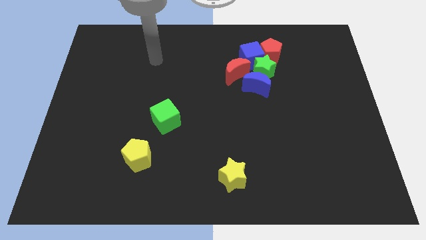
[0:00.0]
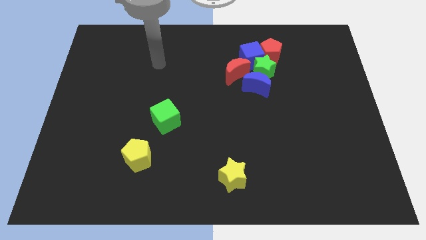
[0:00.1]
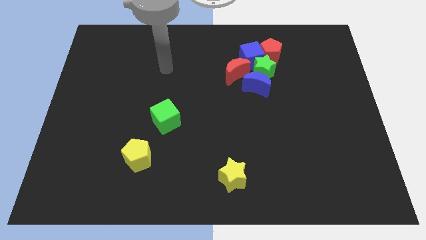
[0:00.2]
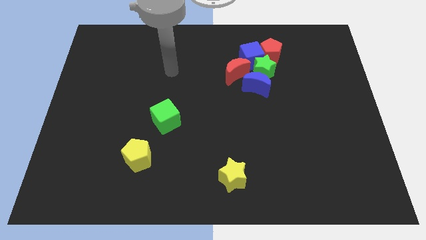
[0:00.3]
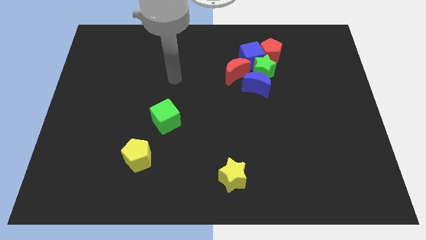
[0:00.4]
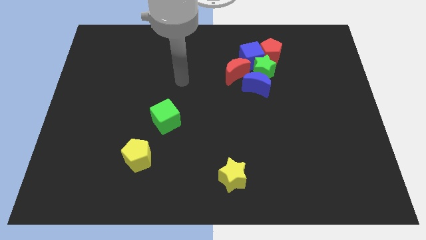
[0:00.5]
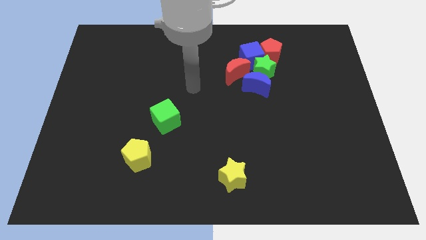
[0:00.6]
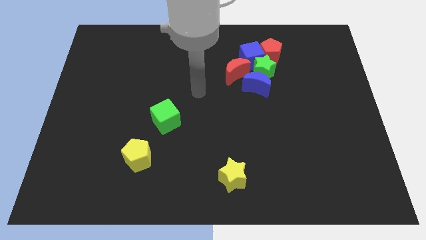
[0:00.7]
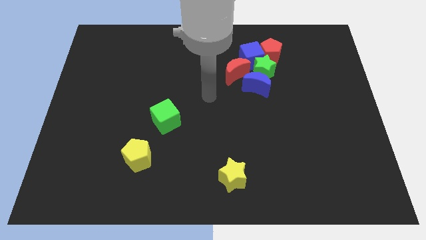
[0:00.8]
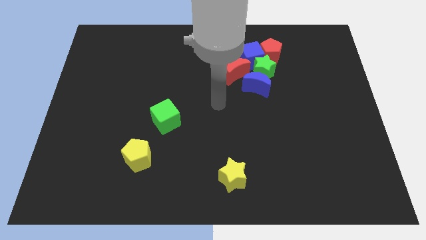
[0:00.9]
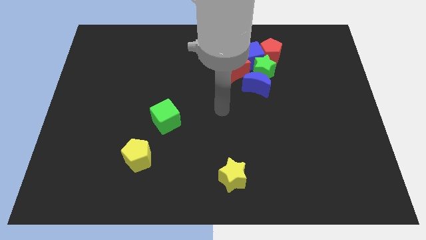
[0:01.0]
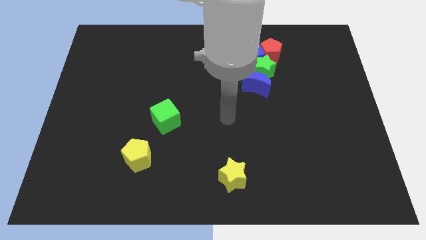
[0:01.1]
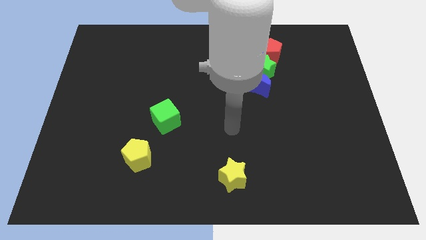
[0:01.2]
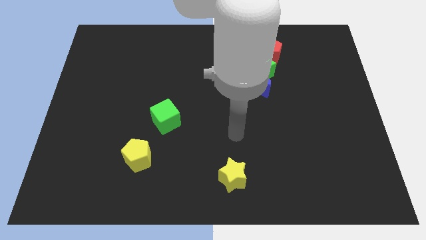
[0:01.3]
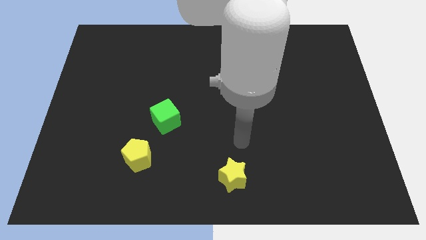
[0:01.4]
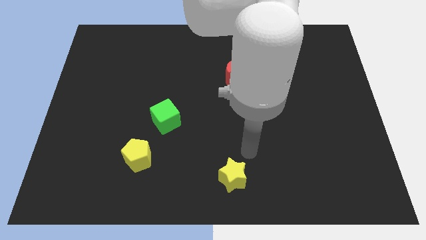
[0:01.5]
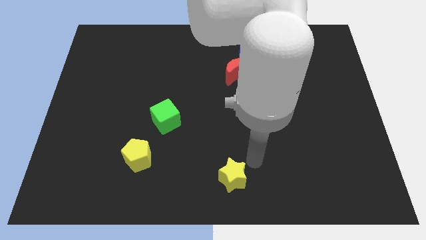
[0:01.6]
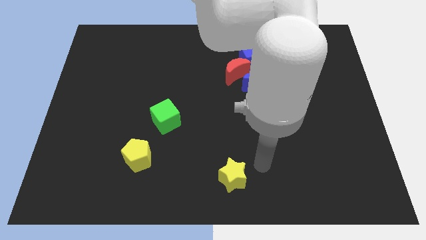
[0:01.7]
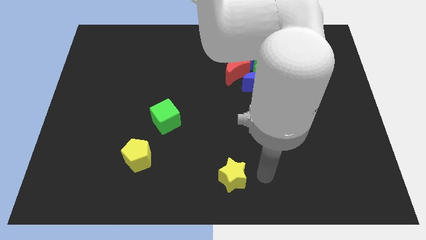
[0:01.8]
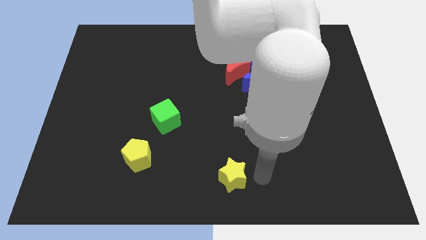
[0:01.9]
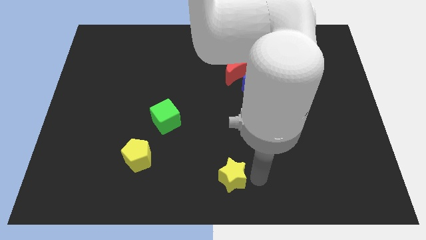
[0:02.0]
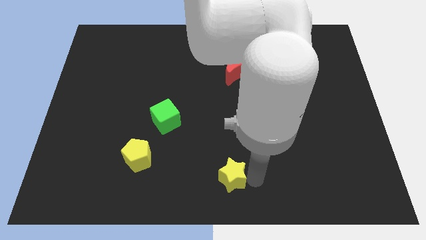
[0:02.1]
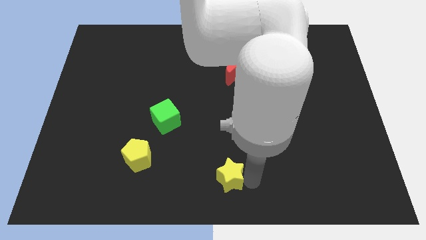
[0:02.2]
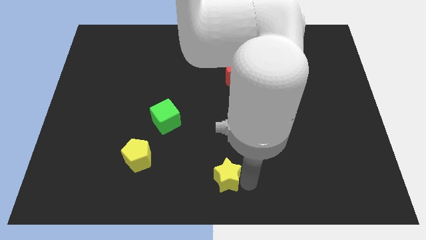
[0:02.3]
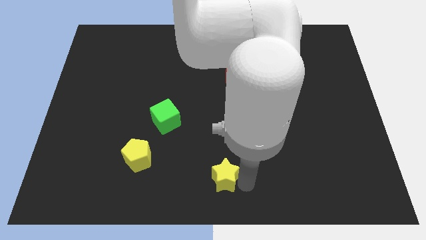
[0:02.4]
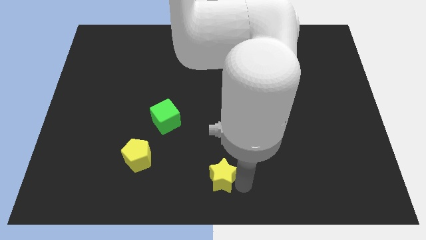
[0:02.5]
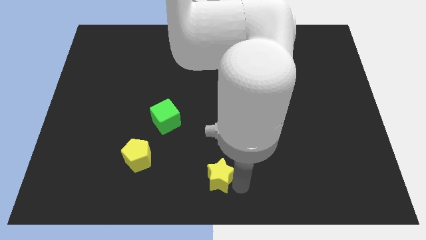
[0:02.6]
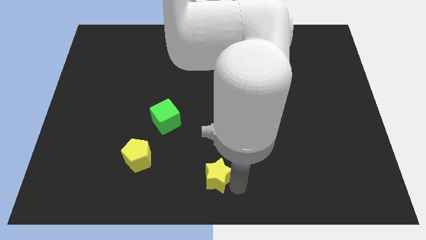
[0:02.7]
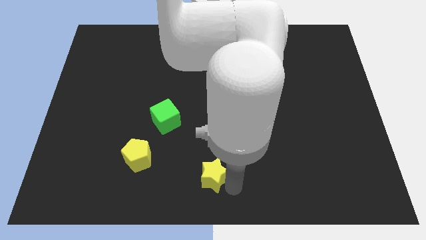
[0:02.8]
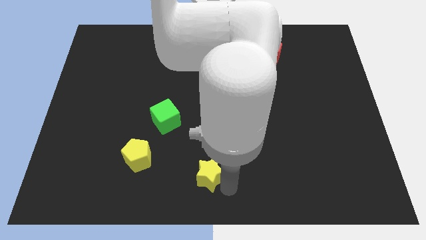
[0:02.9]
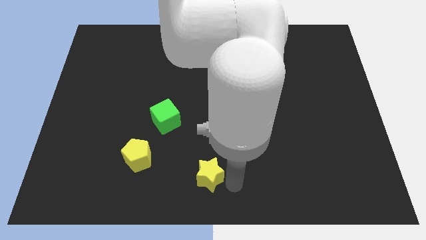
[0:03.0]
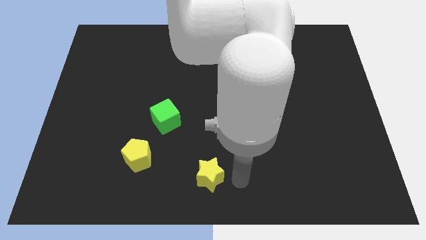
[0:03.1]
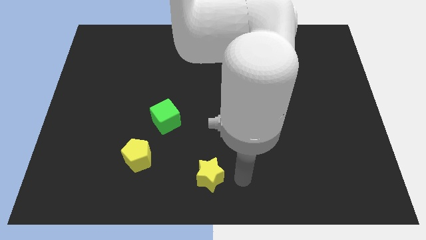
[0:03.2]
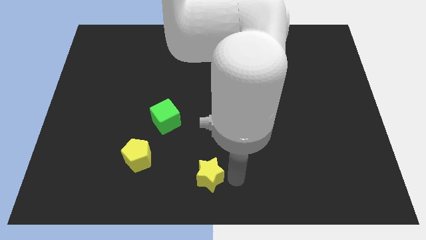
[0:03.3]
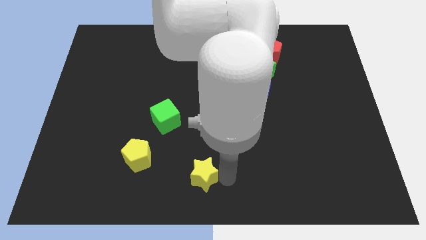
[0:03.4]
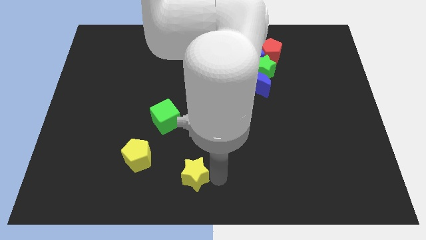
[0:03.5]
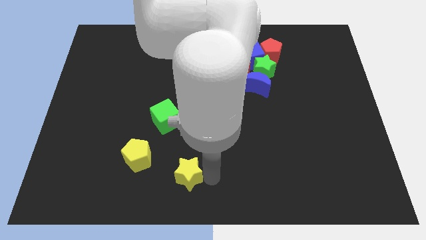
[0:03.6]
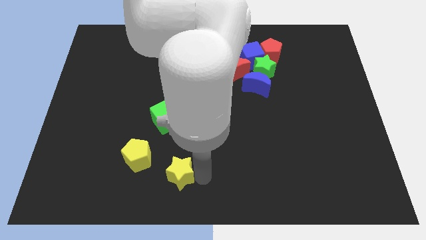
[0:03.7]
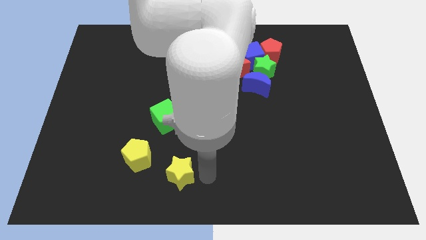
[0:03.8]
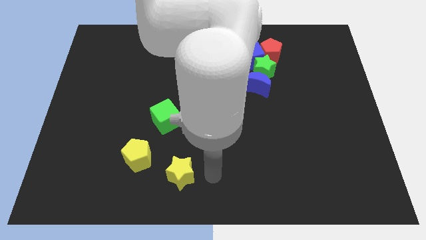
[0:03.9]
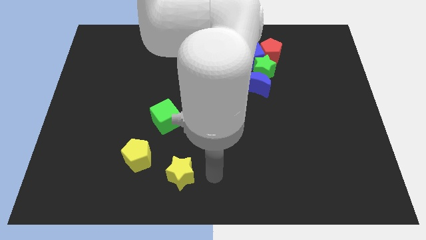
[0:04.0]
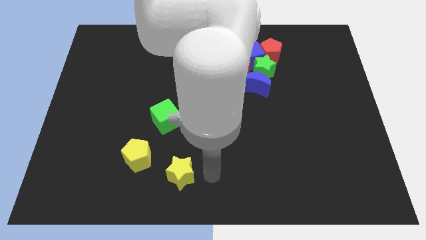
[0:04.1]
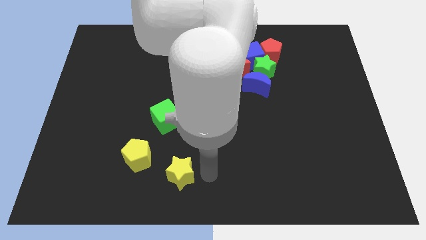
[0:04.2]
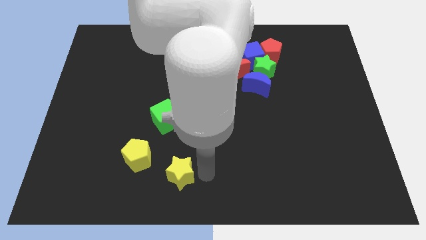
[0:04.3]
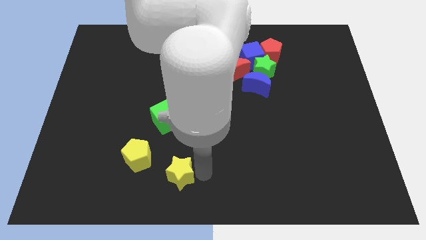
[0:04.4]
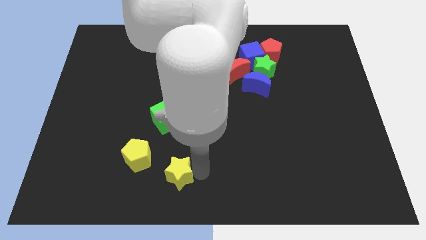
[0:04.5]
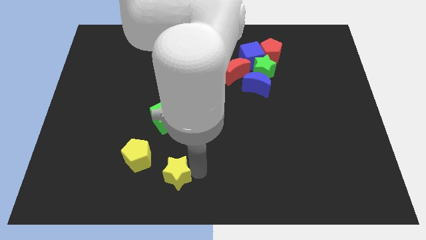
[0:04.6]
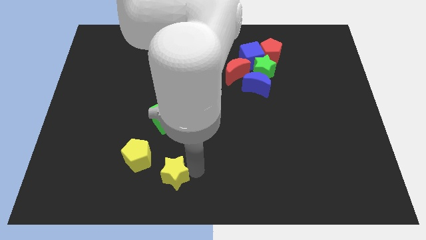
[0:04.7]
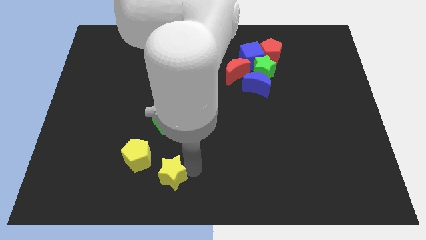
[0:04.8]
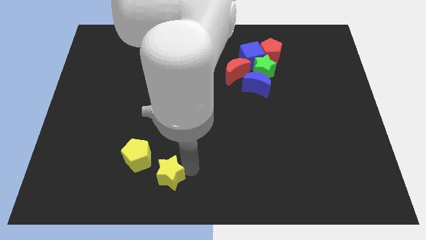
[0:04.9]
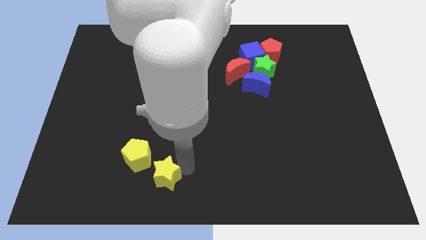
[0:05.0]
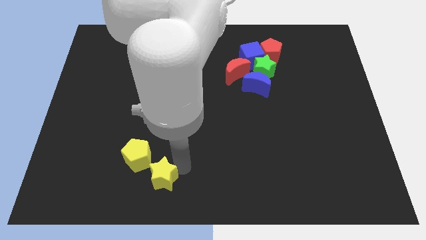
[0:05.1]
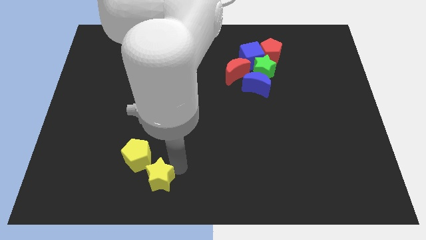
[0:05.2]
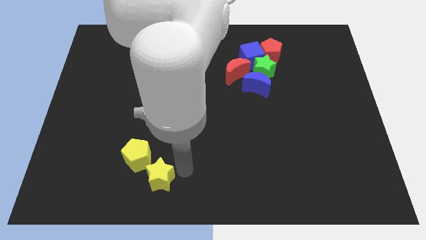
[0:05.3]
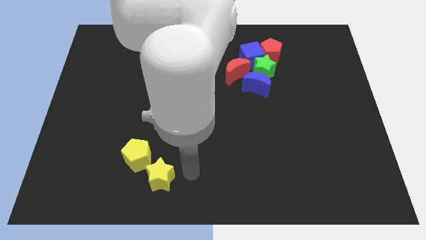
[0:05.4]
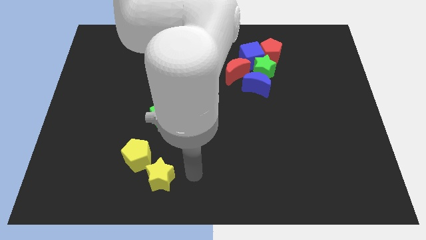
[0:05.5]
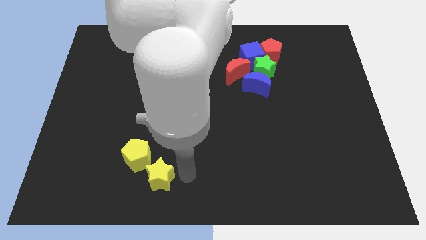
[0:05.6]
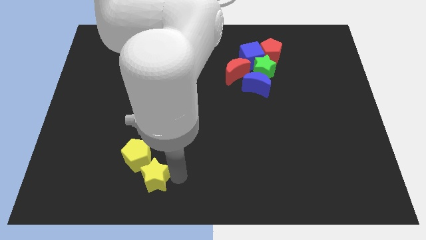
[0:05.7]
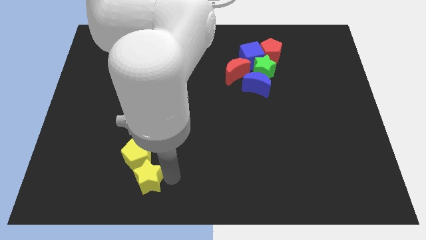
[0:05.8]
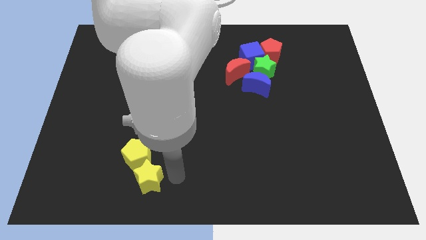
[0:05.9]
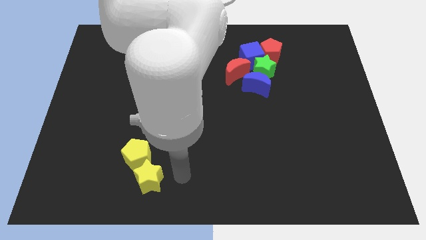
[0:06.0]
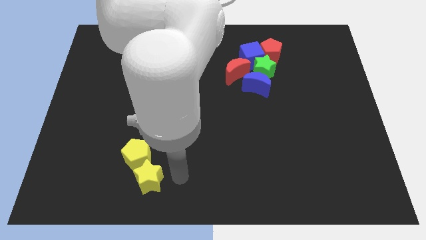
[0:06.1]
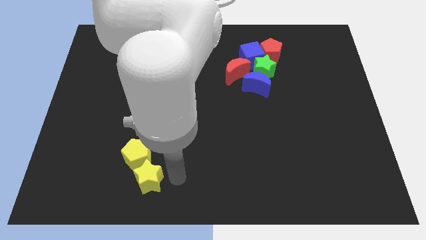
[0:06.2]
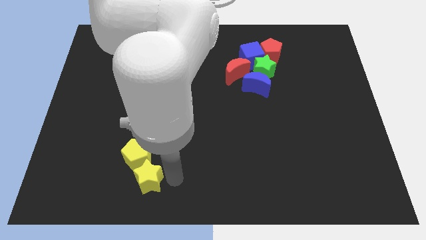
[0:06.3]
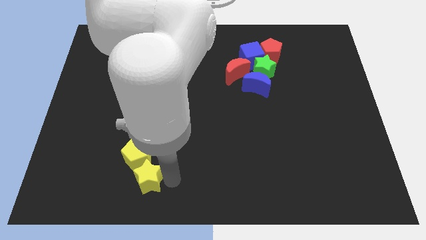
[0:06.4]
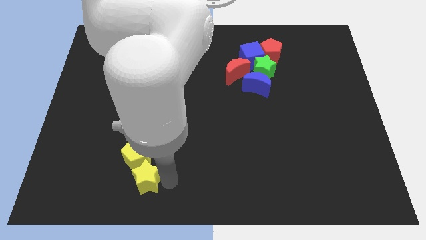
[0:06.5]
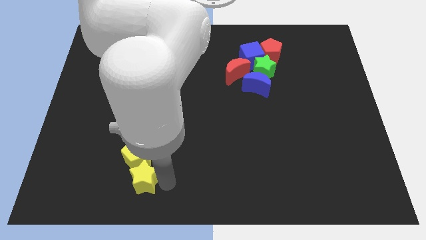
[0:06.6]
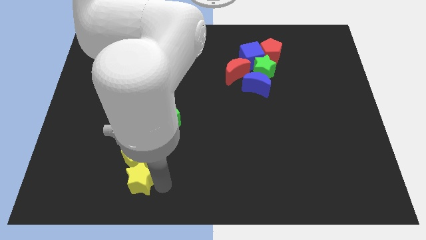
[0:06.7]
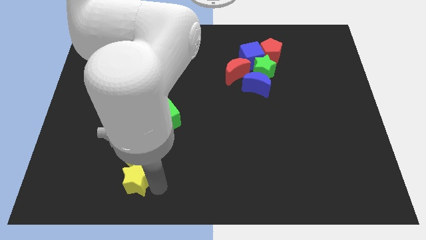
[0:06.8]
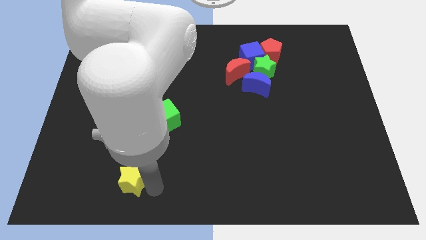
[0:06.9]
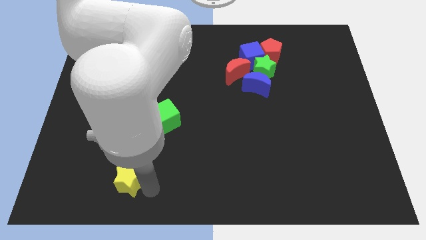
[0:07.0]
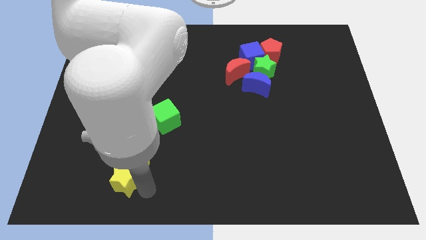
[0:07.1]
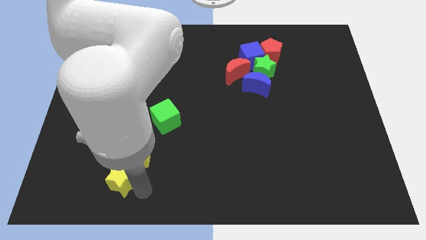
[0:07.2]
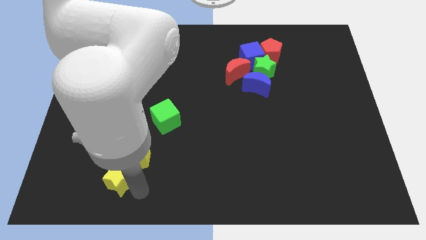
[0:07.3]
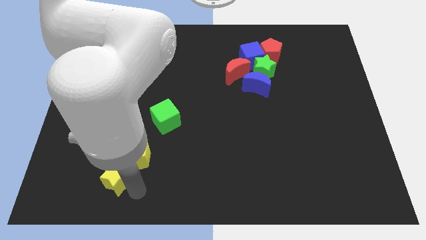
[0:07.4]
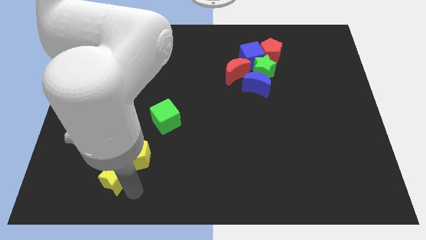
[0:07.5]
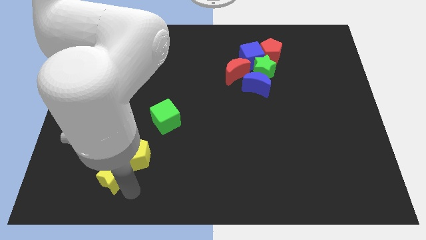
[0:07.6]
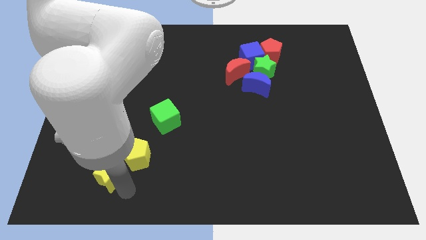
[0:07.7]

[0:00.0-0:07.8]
slide the yellow star just left of the yellow pentagon
